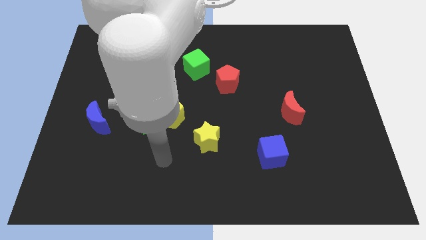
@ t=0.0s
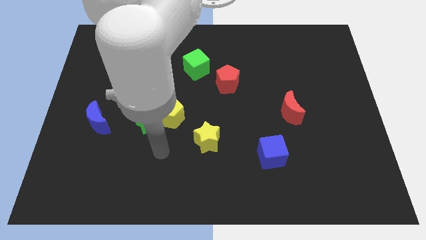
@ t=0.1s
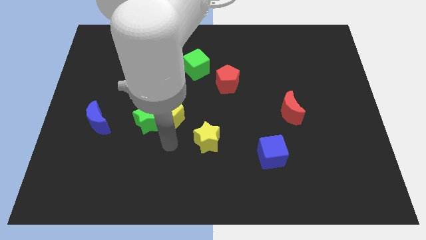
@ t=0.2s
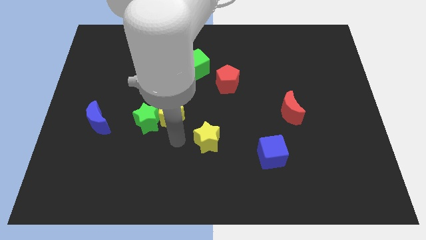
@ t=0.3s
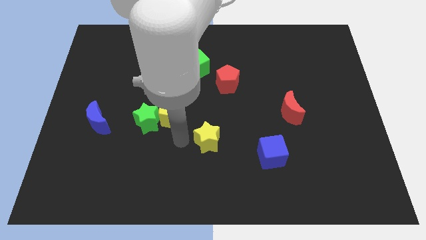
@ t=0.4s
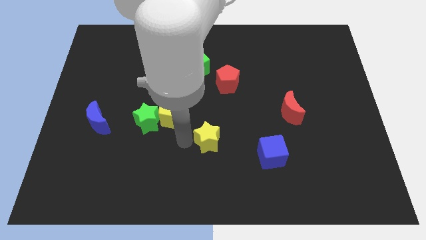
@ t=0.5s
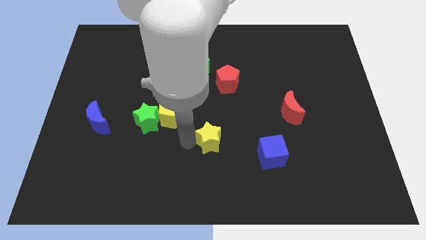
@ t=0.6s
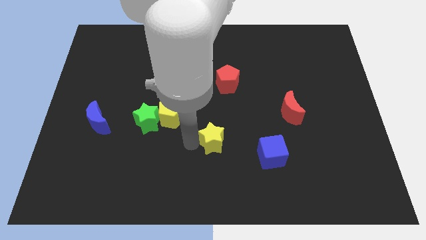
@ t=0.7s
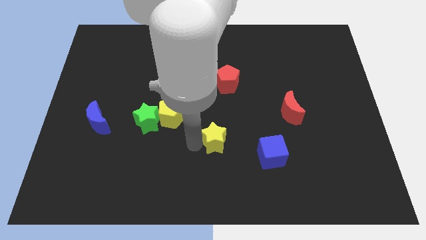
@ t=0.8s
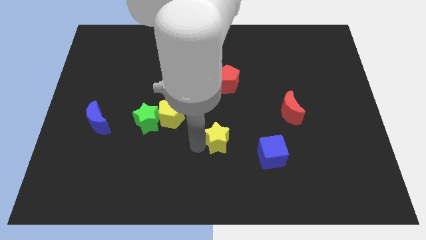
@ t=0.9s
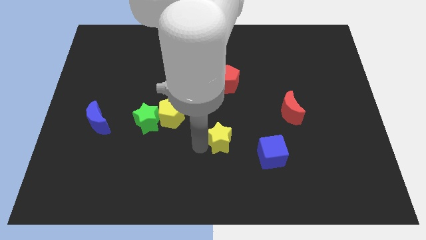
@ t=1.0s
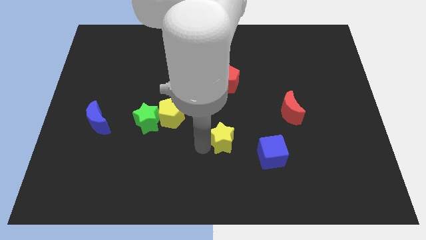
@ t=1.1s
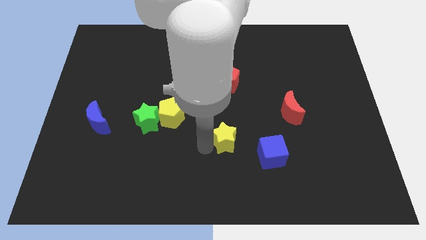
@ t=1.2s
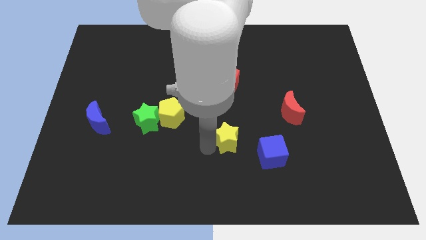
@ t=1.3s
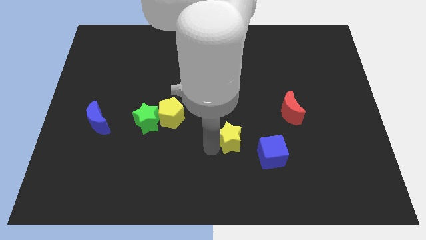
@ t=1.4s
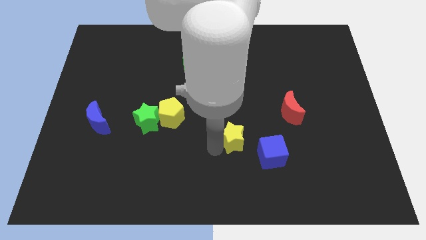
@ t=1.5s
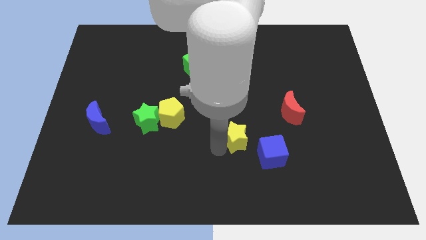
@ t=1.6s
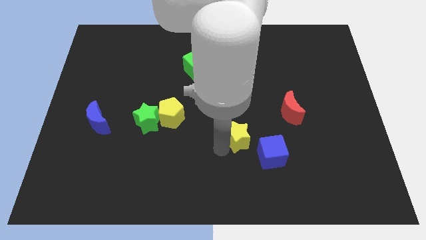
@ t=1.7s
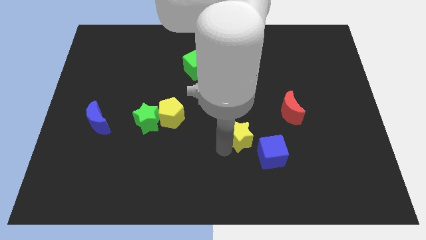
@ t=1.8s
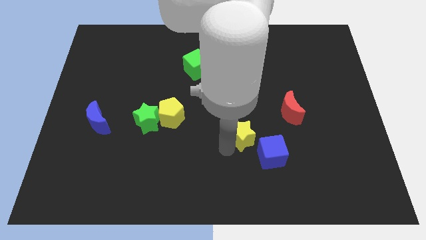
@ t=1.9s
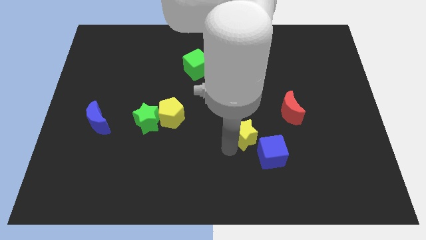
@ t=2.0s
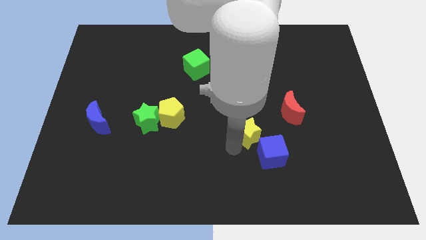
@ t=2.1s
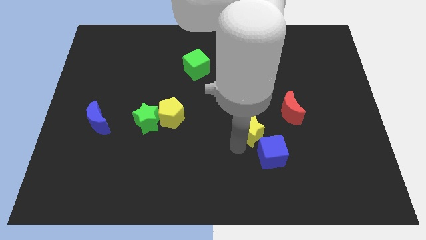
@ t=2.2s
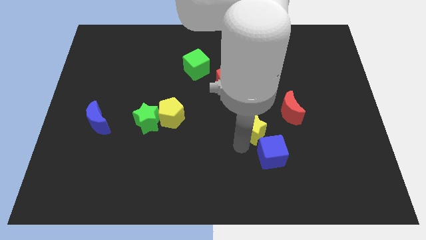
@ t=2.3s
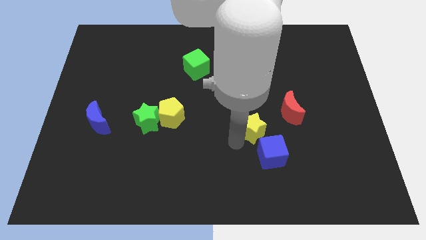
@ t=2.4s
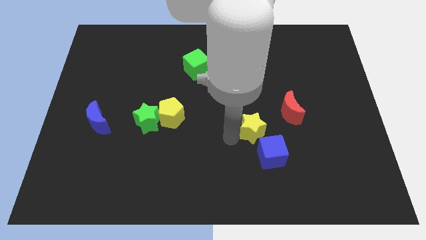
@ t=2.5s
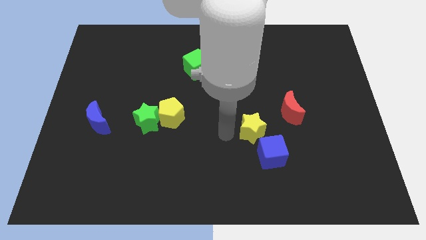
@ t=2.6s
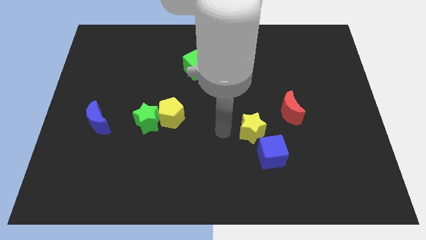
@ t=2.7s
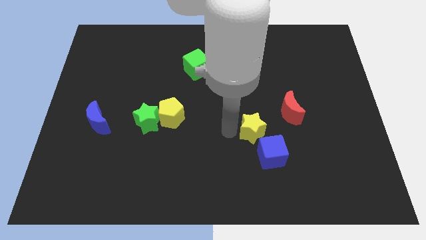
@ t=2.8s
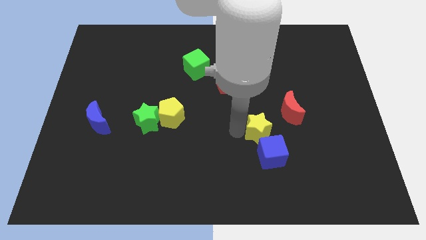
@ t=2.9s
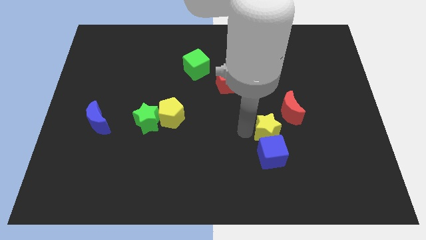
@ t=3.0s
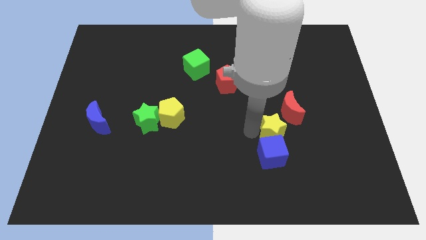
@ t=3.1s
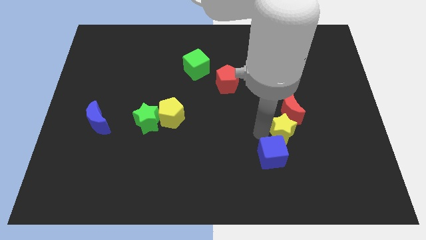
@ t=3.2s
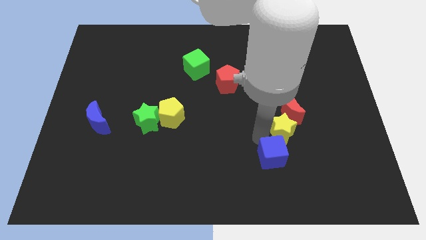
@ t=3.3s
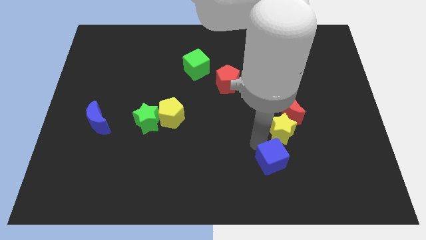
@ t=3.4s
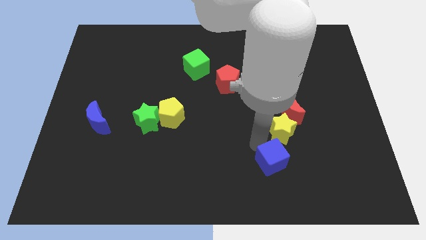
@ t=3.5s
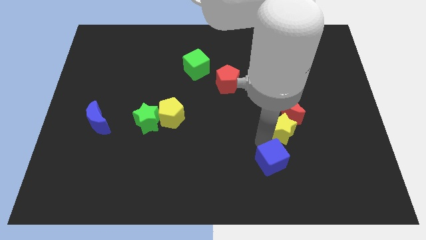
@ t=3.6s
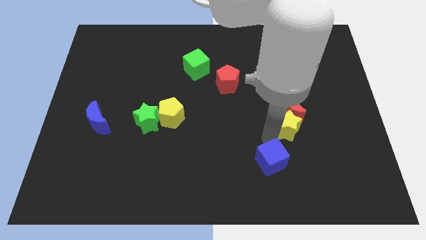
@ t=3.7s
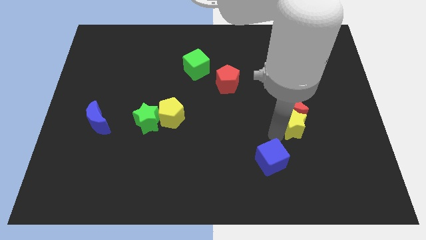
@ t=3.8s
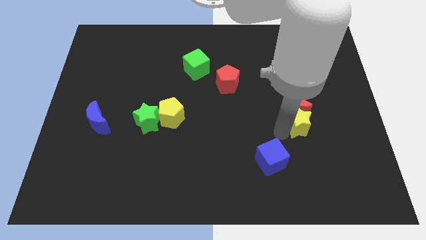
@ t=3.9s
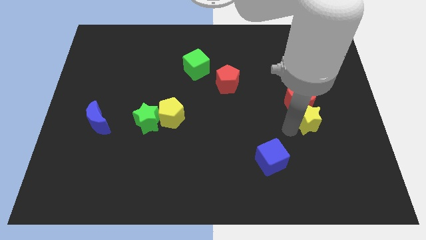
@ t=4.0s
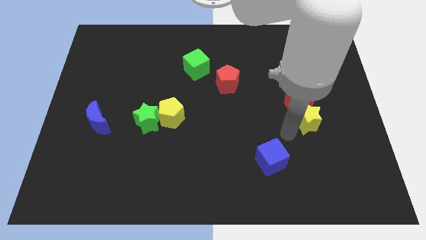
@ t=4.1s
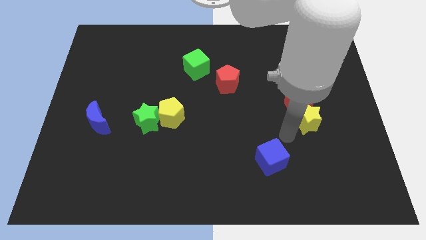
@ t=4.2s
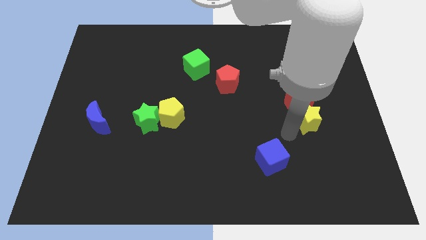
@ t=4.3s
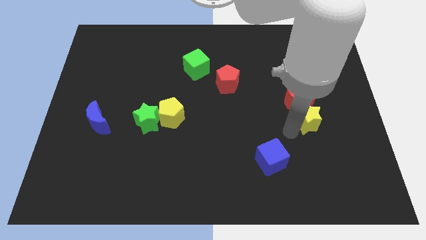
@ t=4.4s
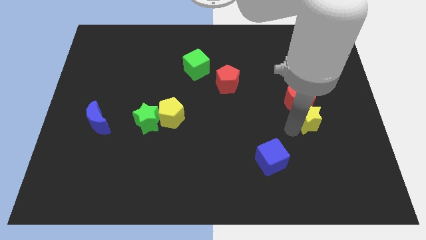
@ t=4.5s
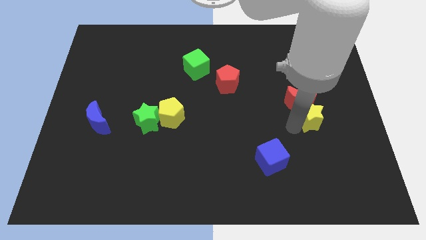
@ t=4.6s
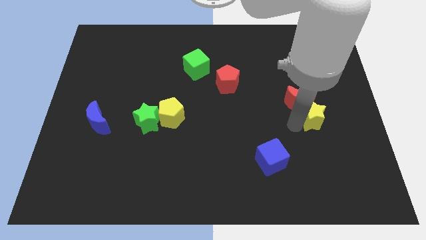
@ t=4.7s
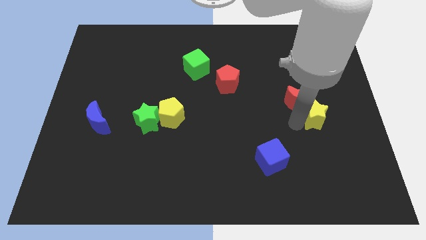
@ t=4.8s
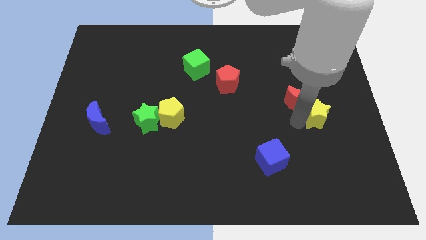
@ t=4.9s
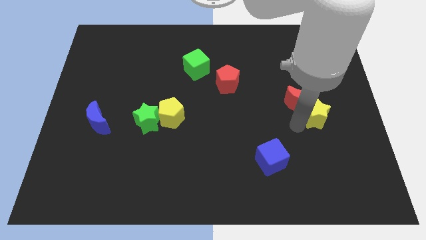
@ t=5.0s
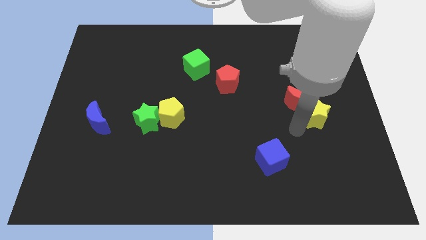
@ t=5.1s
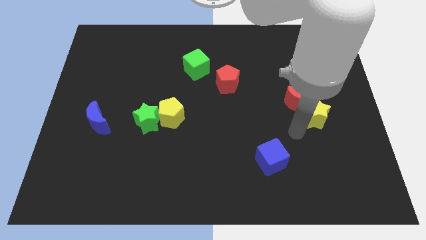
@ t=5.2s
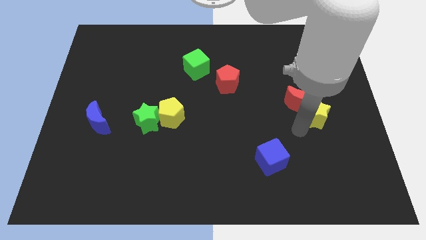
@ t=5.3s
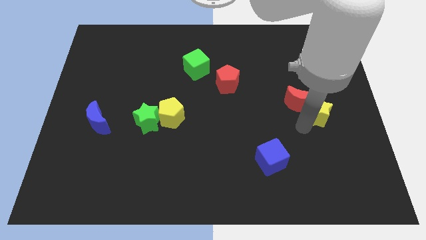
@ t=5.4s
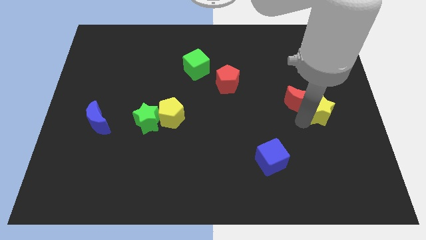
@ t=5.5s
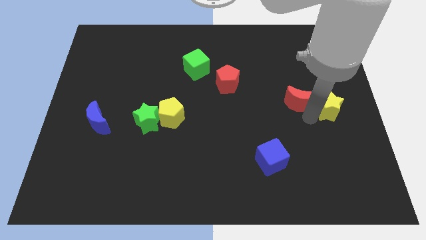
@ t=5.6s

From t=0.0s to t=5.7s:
push the yellow star to the center right

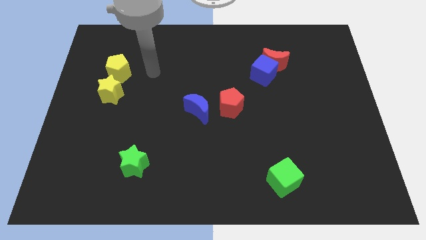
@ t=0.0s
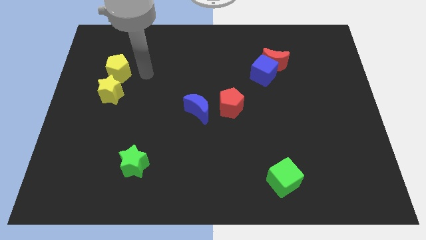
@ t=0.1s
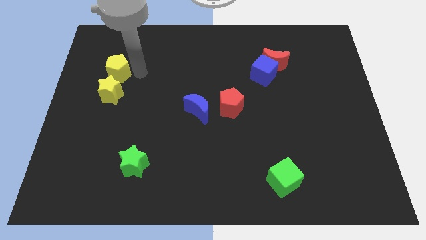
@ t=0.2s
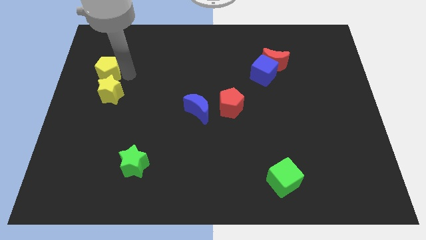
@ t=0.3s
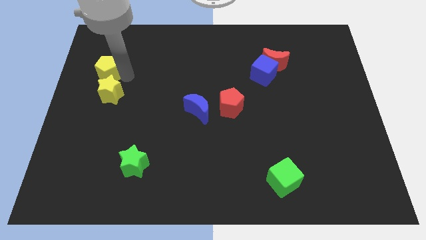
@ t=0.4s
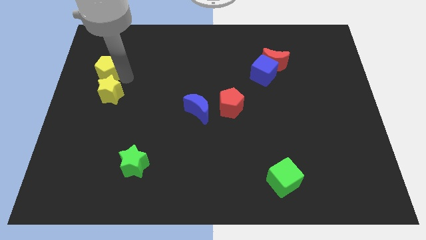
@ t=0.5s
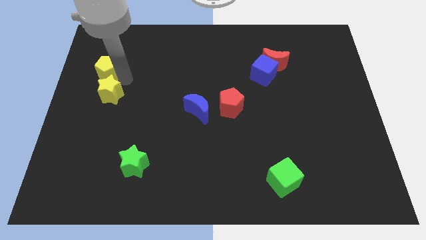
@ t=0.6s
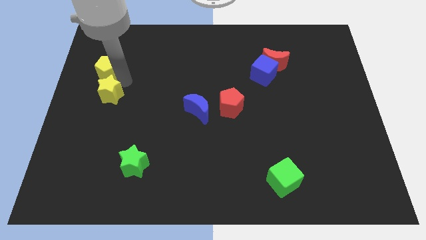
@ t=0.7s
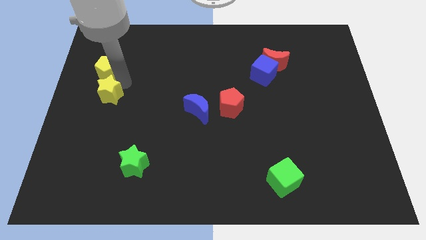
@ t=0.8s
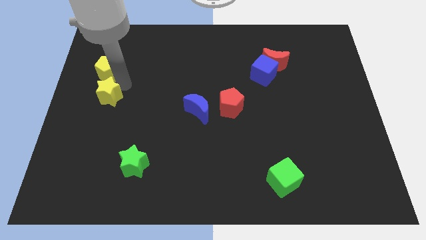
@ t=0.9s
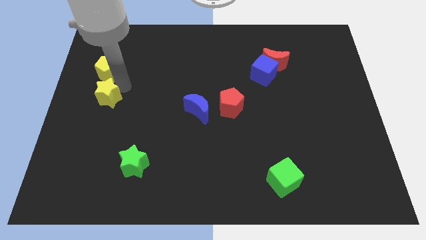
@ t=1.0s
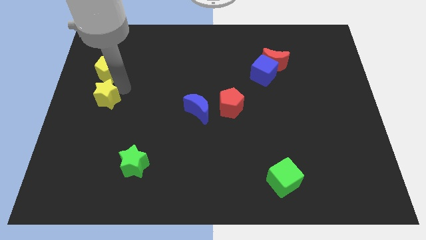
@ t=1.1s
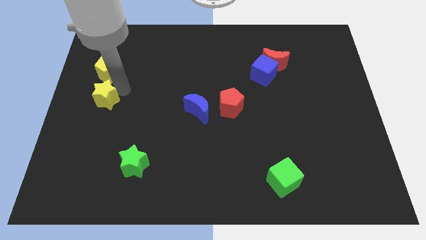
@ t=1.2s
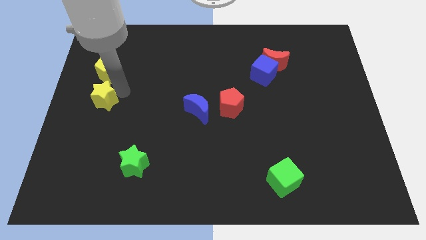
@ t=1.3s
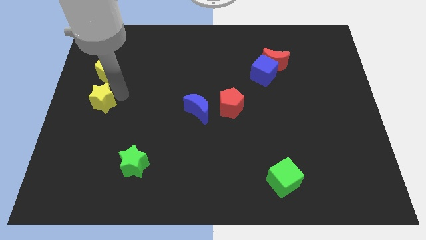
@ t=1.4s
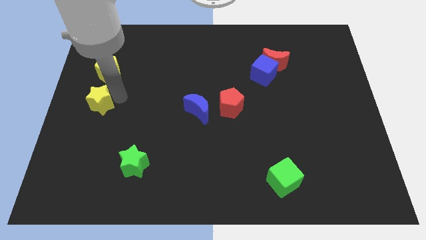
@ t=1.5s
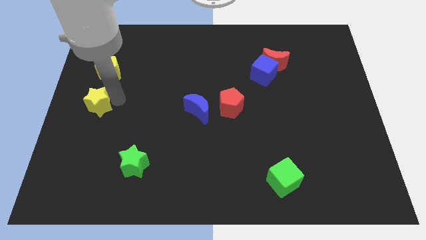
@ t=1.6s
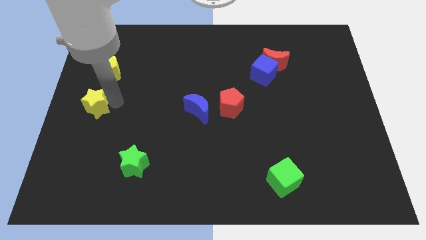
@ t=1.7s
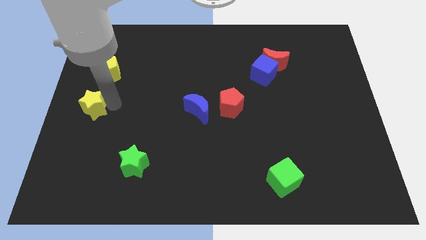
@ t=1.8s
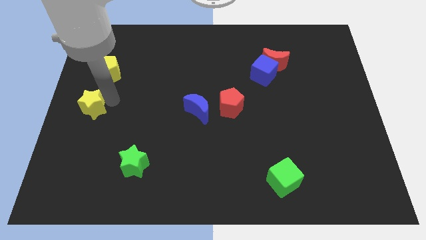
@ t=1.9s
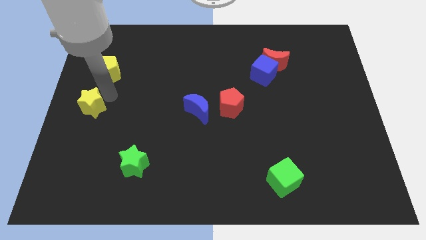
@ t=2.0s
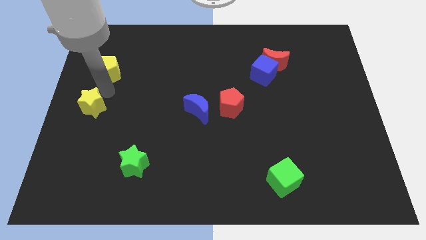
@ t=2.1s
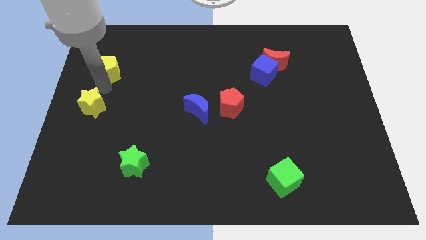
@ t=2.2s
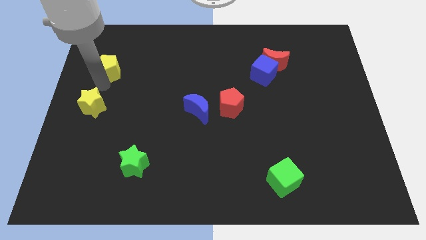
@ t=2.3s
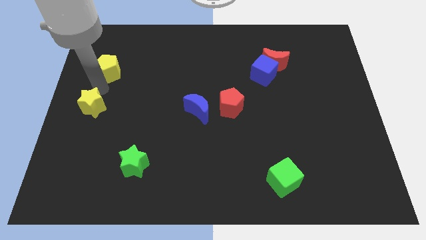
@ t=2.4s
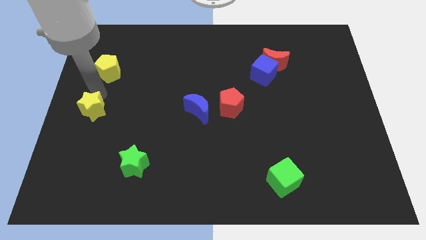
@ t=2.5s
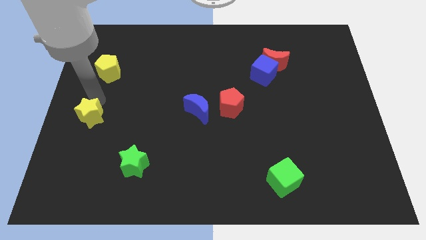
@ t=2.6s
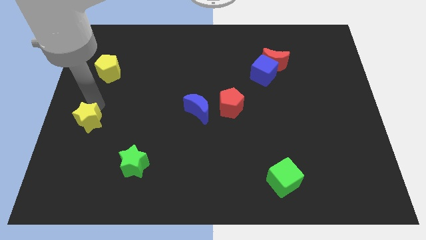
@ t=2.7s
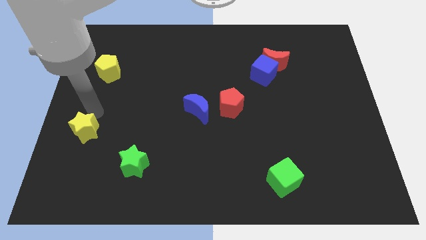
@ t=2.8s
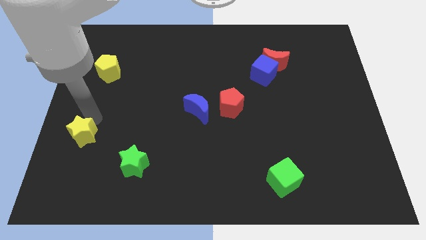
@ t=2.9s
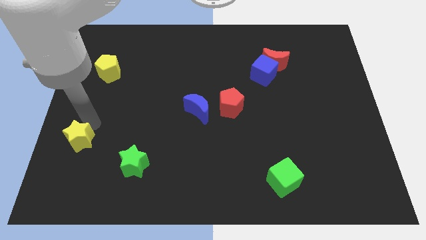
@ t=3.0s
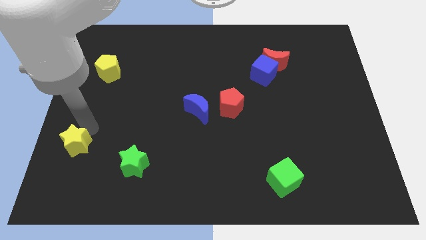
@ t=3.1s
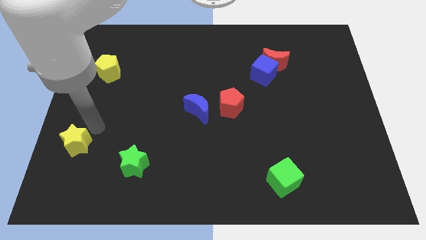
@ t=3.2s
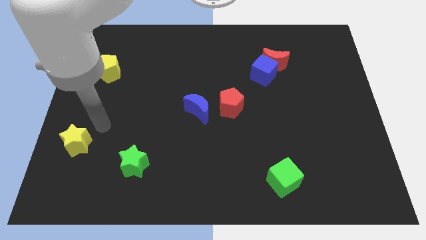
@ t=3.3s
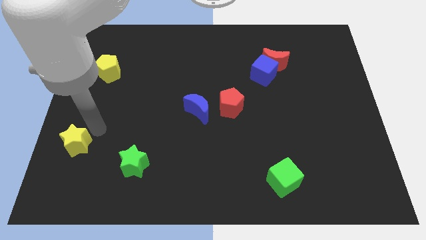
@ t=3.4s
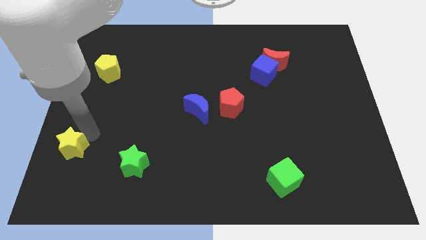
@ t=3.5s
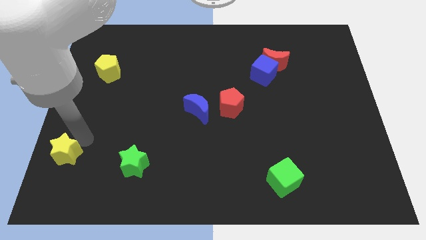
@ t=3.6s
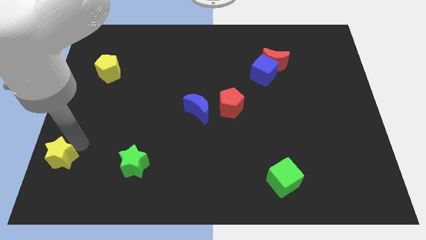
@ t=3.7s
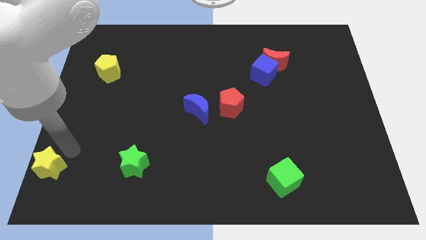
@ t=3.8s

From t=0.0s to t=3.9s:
put the yellow star to the bottom left corner
